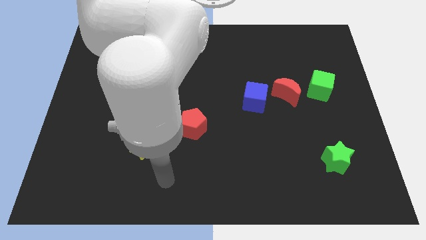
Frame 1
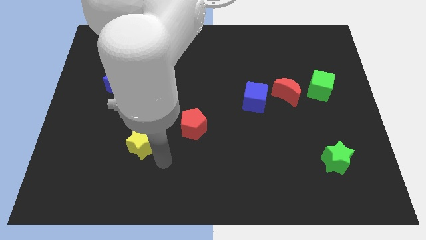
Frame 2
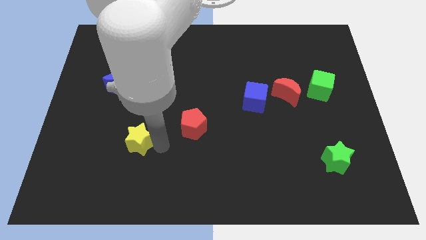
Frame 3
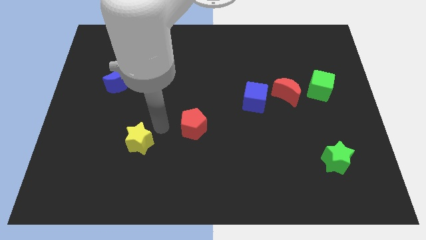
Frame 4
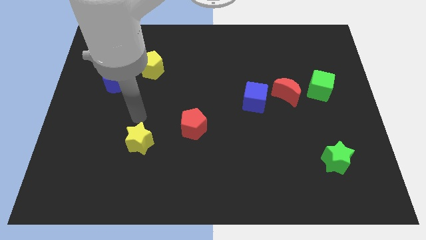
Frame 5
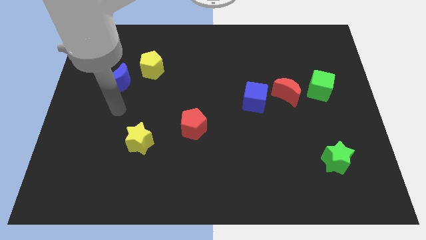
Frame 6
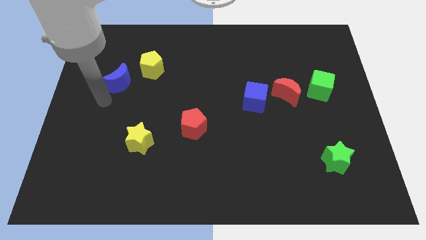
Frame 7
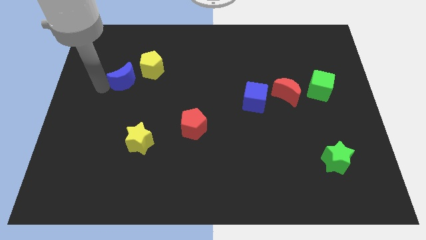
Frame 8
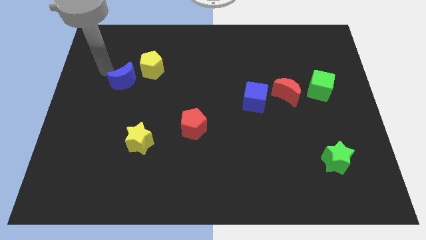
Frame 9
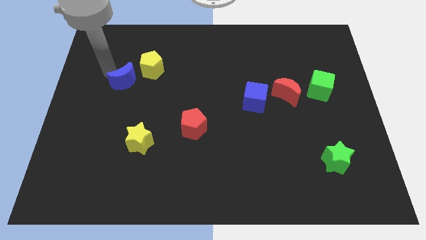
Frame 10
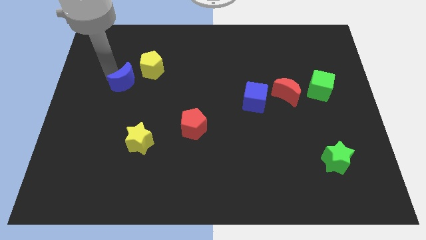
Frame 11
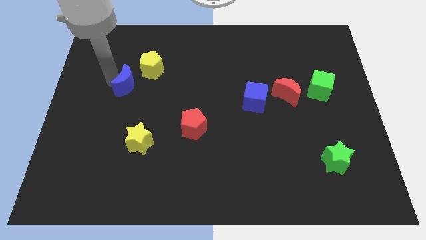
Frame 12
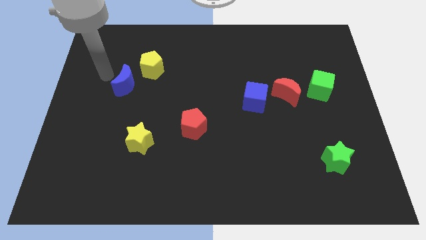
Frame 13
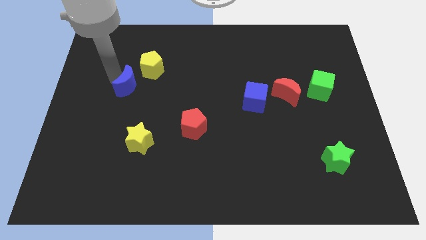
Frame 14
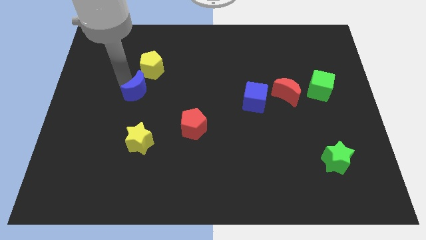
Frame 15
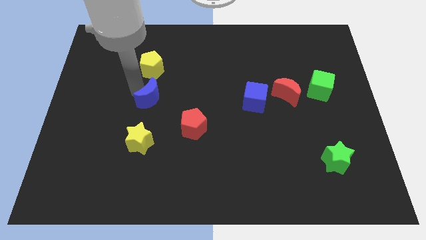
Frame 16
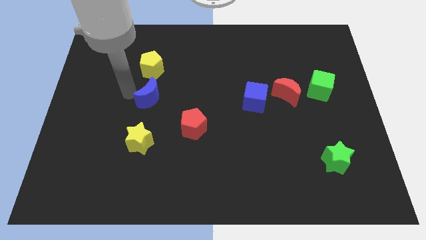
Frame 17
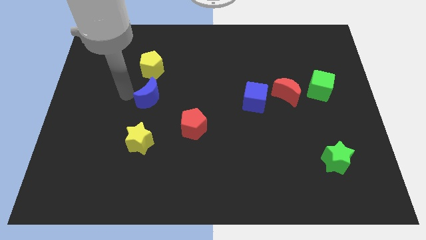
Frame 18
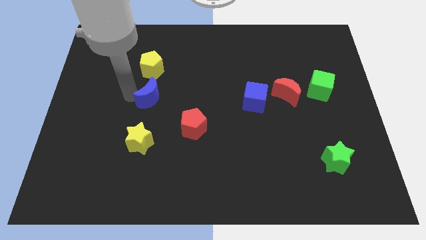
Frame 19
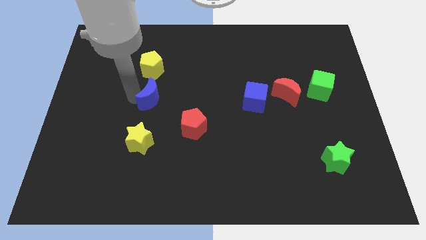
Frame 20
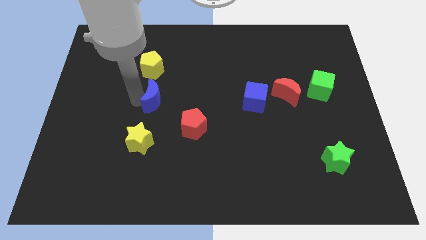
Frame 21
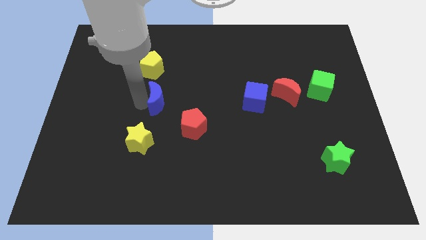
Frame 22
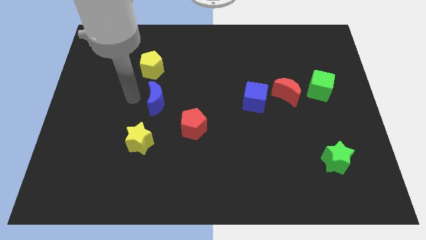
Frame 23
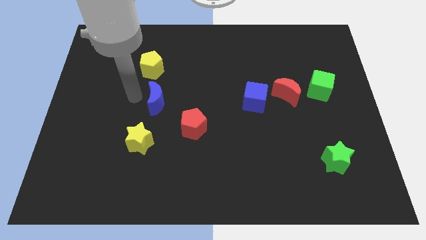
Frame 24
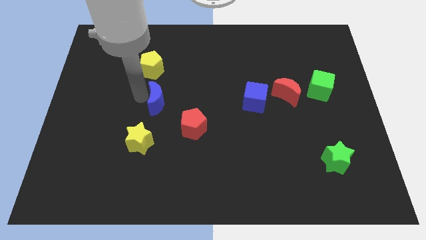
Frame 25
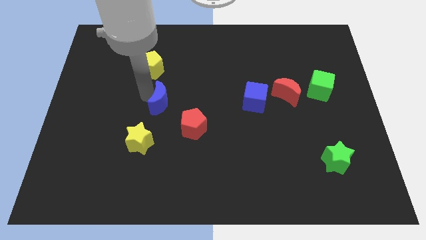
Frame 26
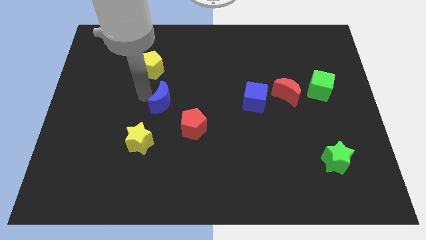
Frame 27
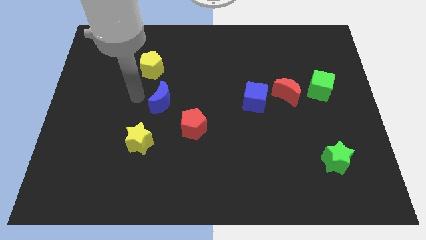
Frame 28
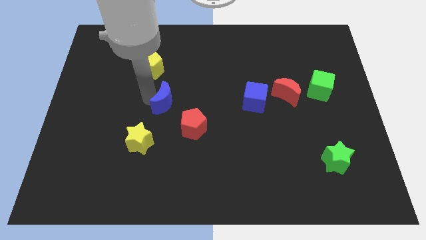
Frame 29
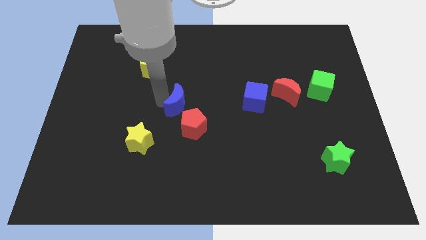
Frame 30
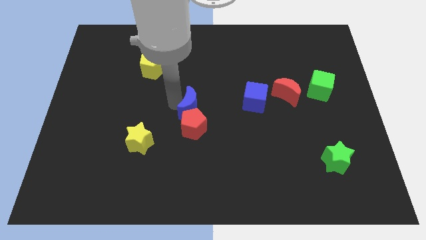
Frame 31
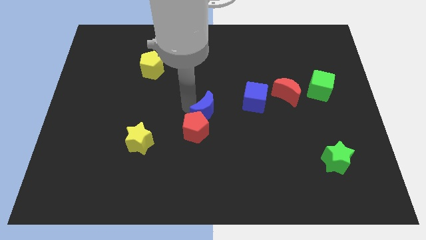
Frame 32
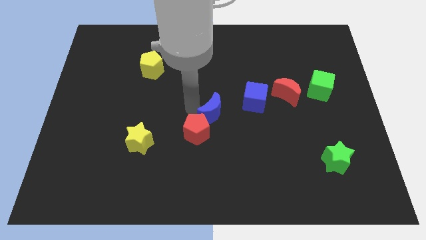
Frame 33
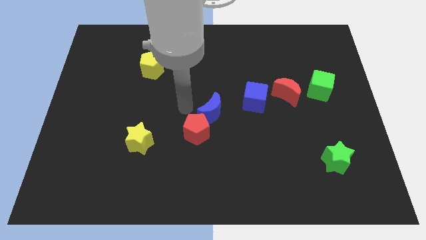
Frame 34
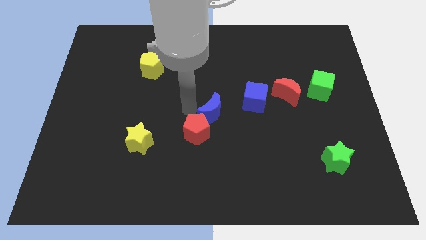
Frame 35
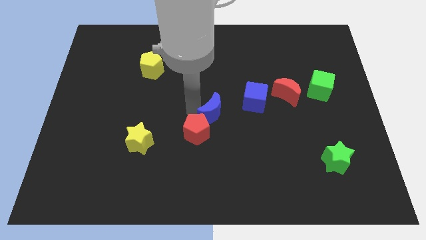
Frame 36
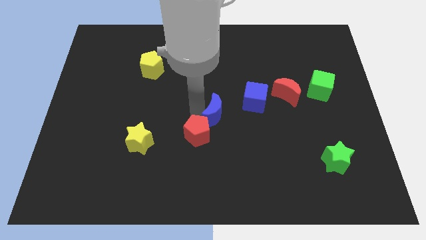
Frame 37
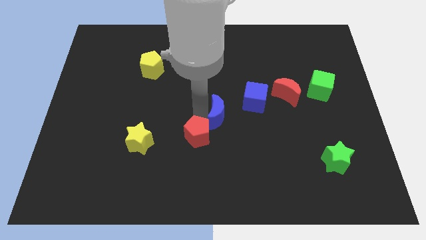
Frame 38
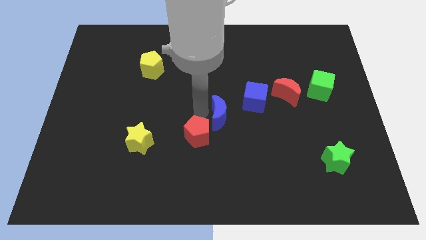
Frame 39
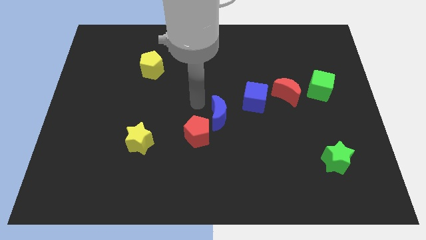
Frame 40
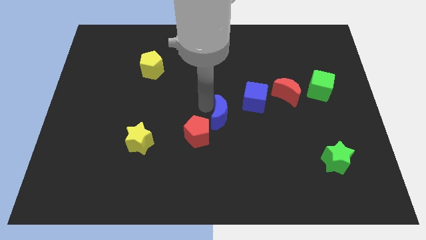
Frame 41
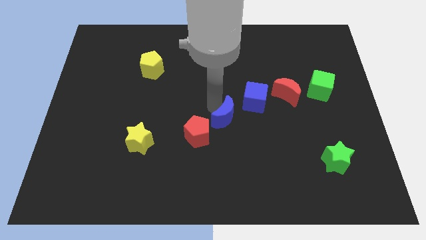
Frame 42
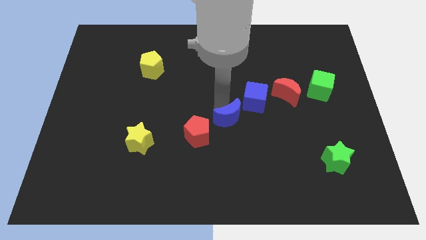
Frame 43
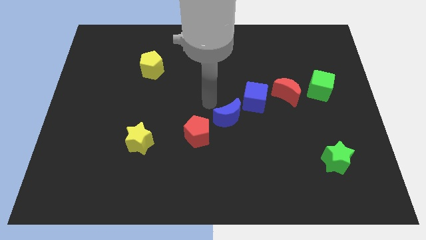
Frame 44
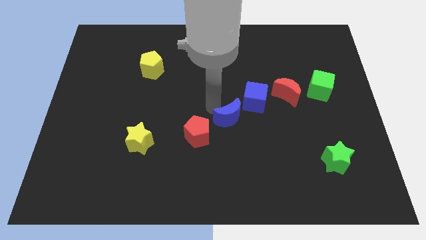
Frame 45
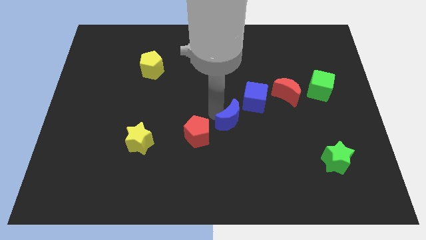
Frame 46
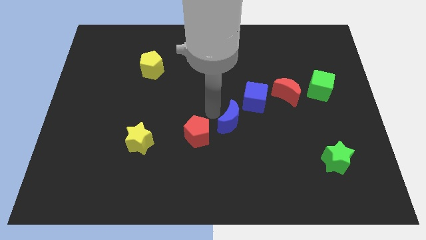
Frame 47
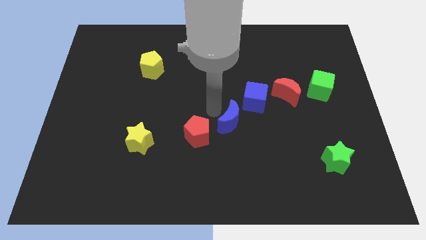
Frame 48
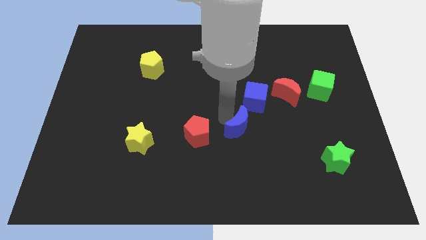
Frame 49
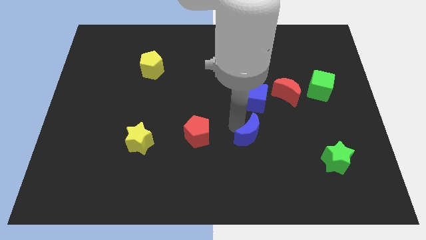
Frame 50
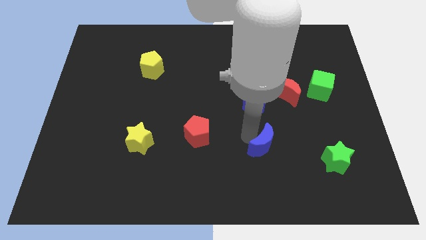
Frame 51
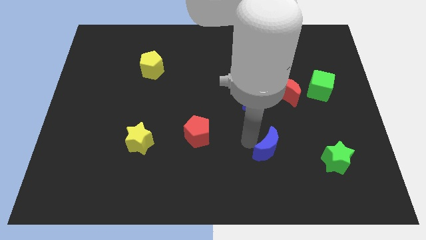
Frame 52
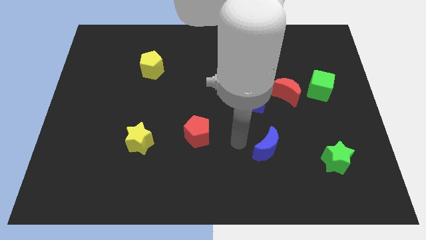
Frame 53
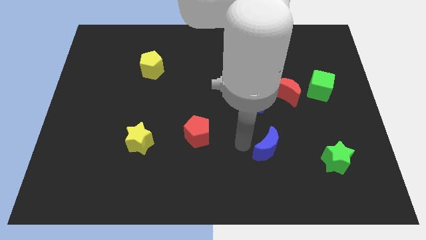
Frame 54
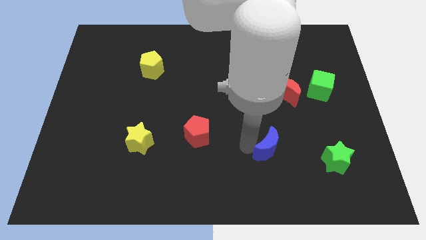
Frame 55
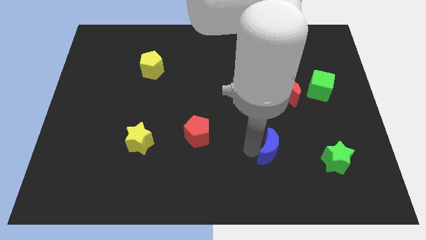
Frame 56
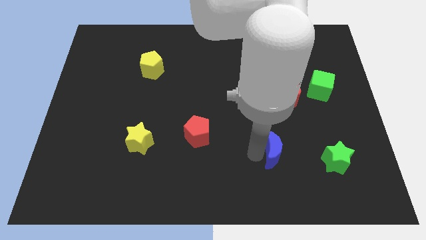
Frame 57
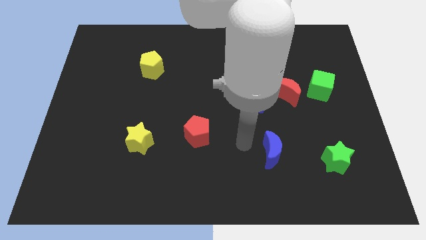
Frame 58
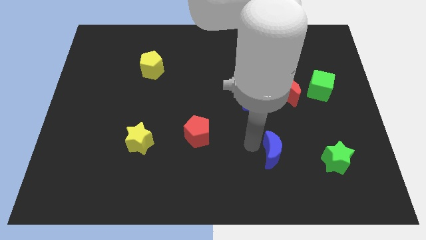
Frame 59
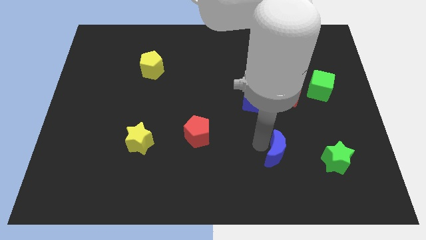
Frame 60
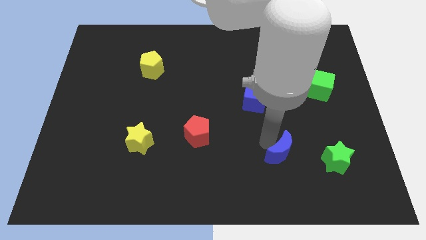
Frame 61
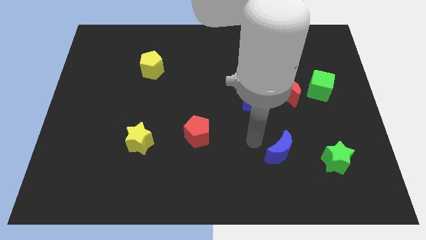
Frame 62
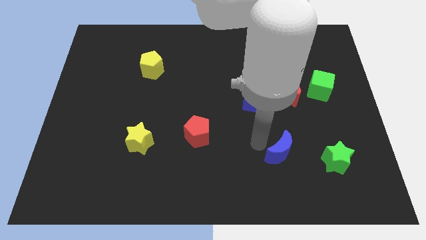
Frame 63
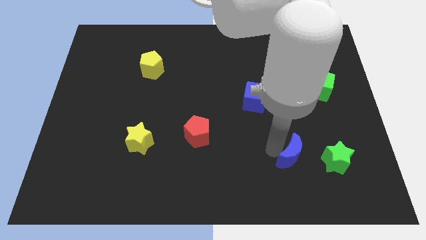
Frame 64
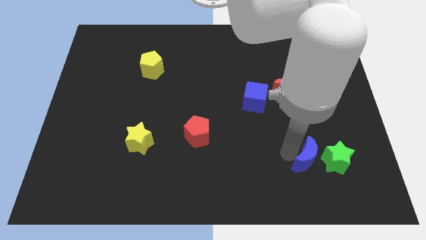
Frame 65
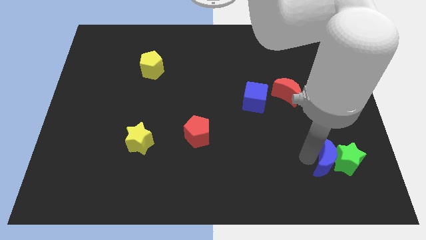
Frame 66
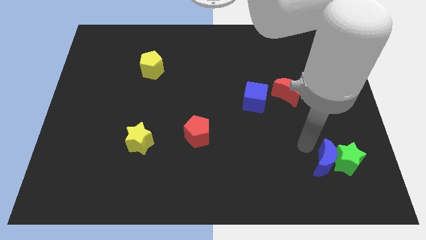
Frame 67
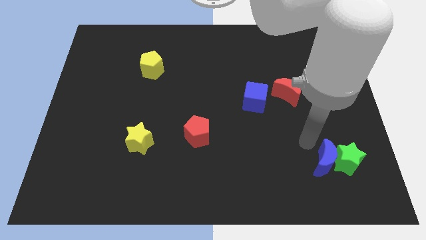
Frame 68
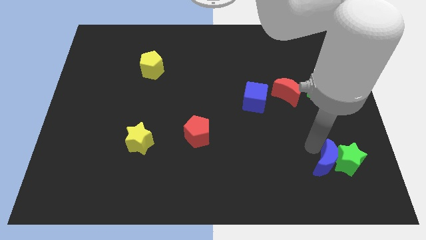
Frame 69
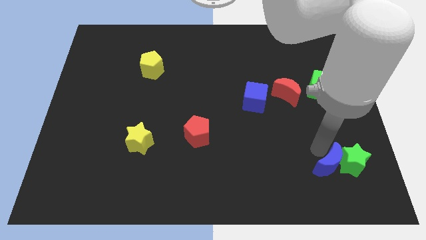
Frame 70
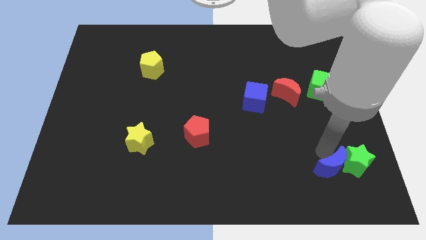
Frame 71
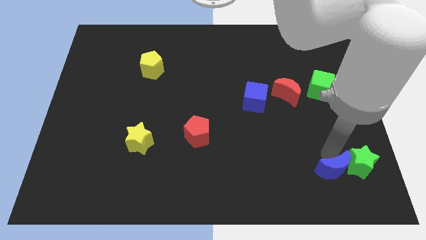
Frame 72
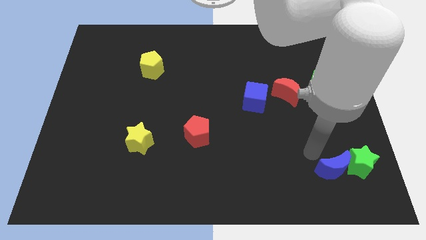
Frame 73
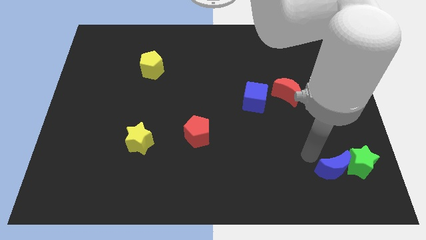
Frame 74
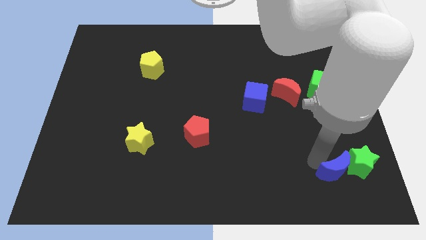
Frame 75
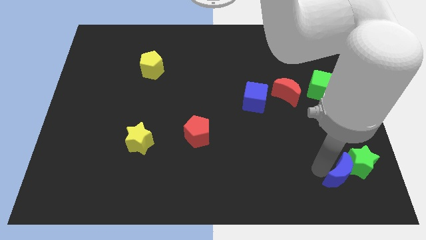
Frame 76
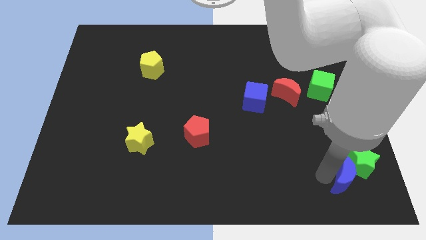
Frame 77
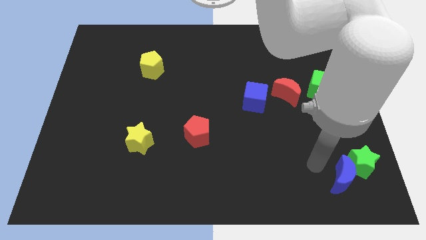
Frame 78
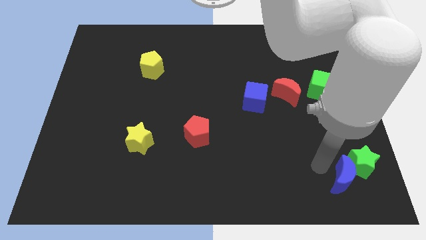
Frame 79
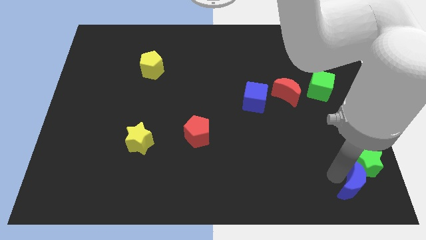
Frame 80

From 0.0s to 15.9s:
slide the blue moon to the bottom right
